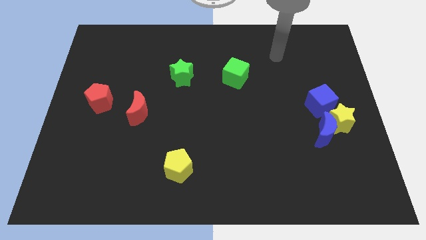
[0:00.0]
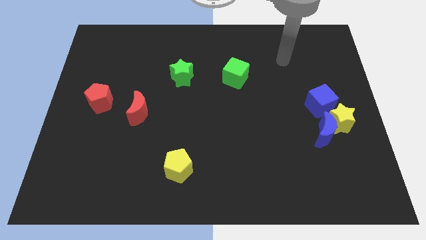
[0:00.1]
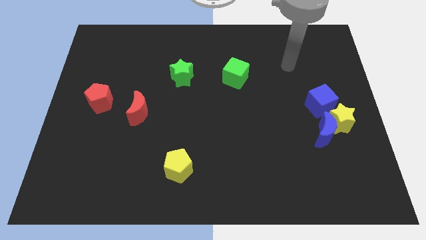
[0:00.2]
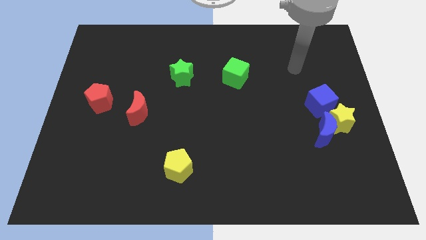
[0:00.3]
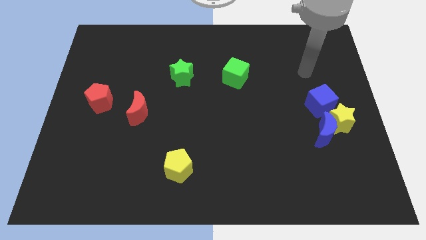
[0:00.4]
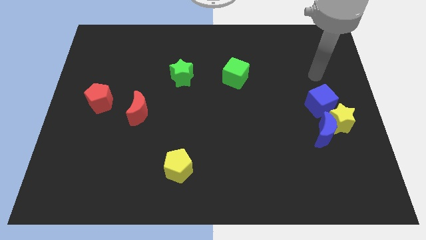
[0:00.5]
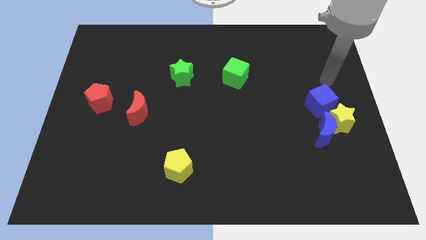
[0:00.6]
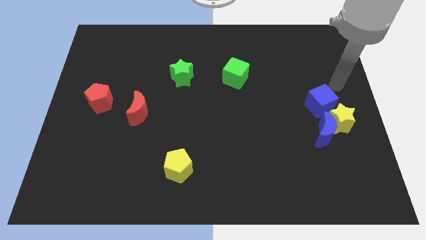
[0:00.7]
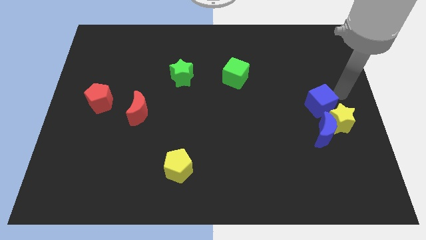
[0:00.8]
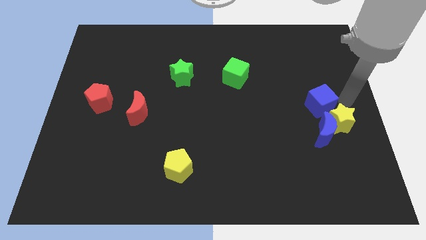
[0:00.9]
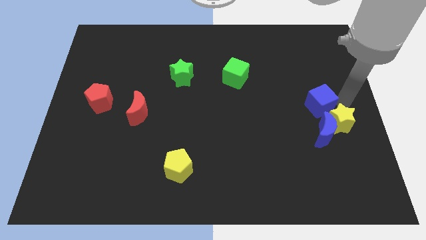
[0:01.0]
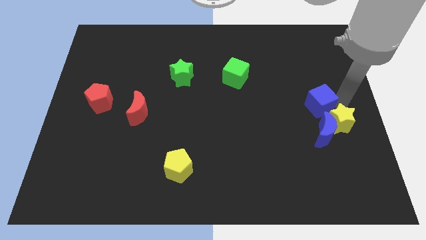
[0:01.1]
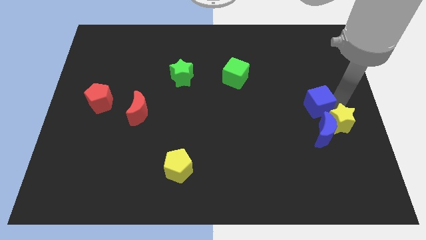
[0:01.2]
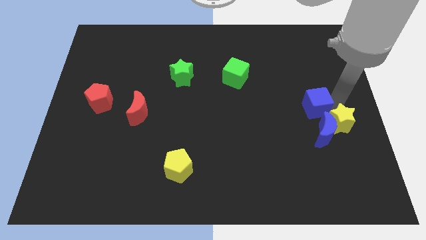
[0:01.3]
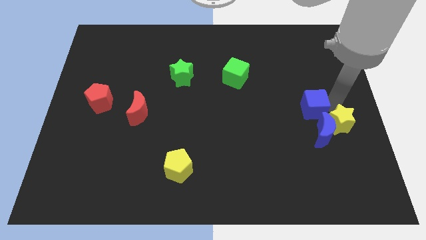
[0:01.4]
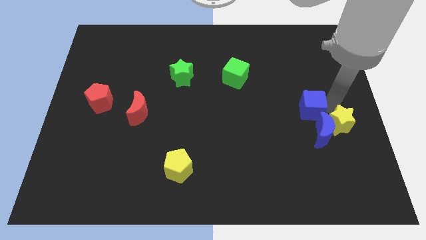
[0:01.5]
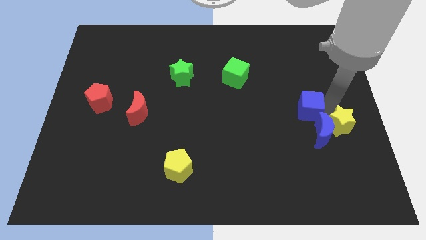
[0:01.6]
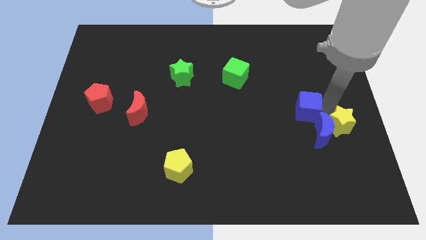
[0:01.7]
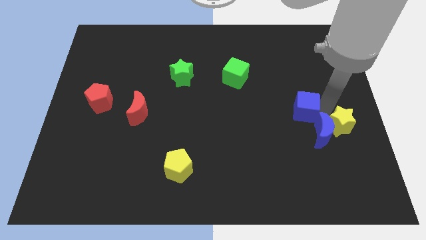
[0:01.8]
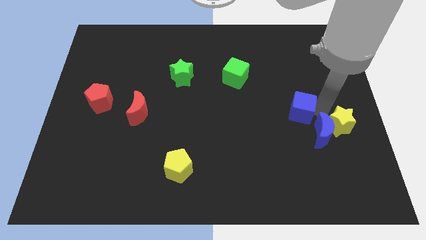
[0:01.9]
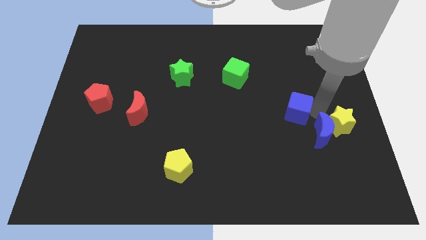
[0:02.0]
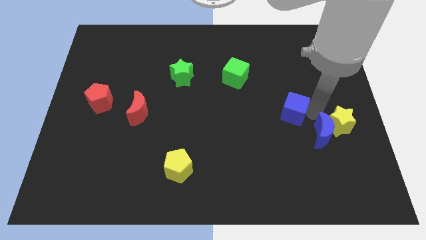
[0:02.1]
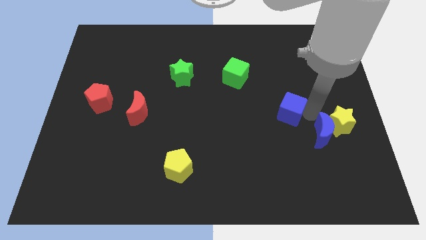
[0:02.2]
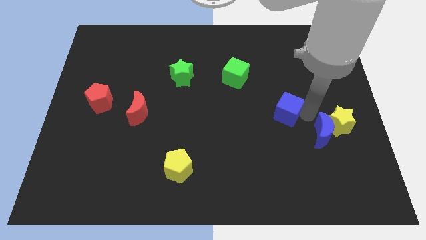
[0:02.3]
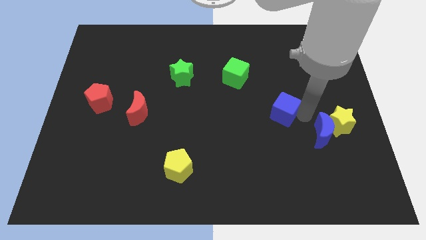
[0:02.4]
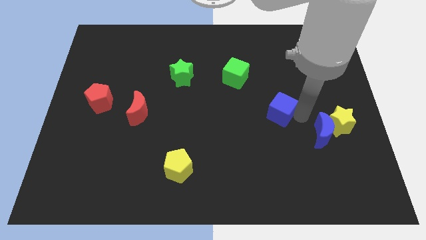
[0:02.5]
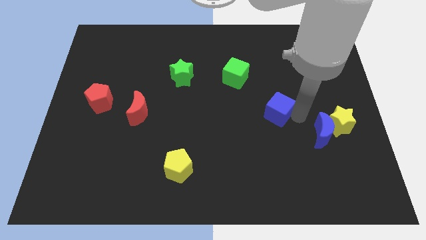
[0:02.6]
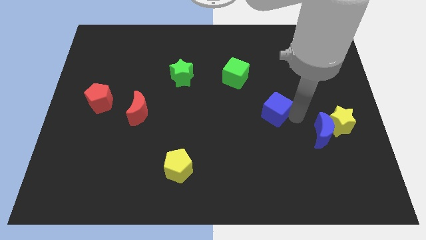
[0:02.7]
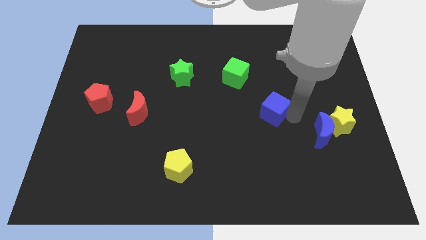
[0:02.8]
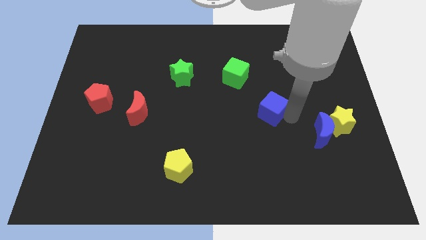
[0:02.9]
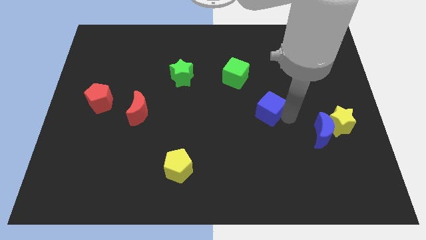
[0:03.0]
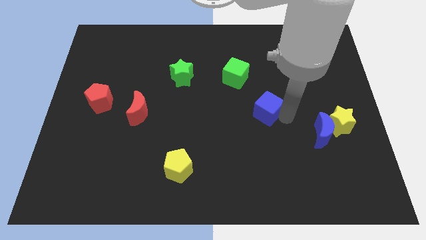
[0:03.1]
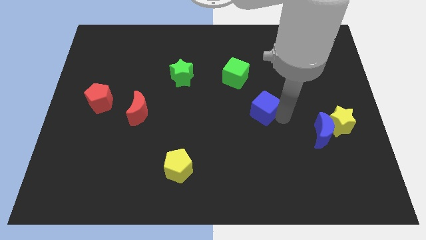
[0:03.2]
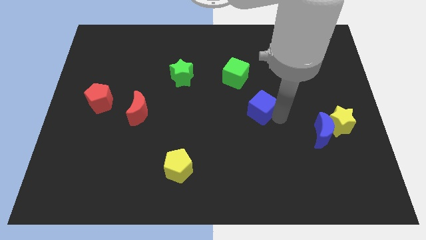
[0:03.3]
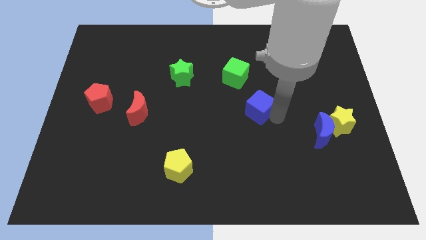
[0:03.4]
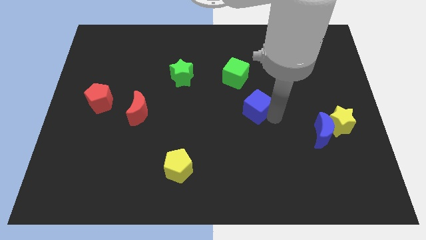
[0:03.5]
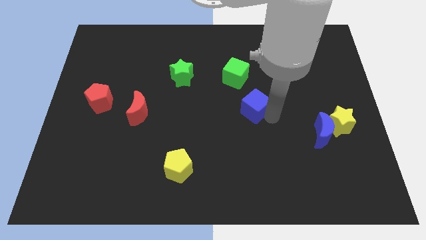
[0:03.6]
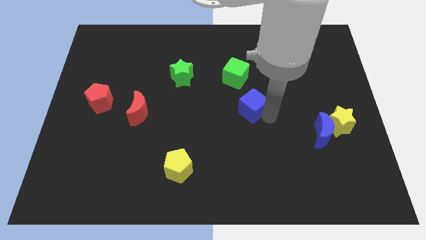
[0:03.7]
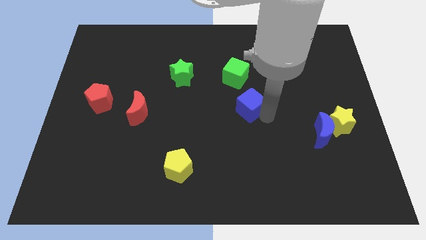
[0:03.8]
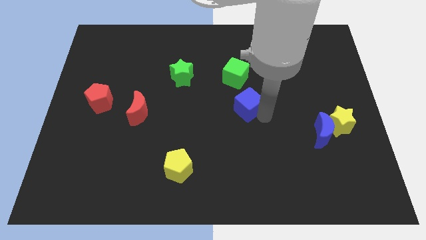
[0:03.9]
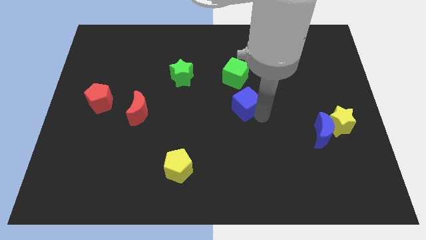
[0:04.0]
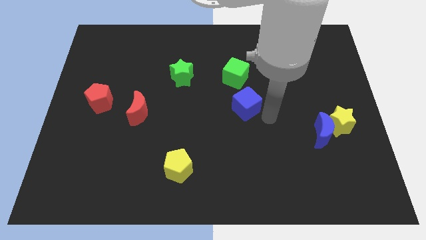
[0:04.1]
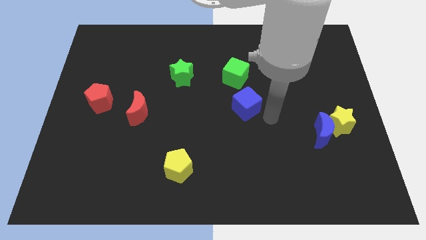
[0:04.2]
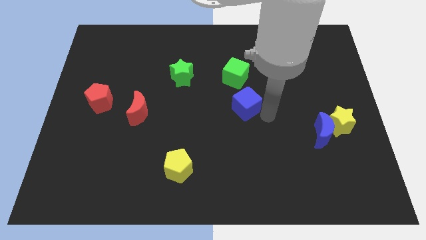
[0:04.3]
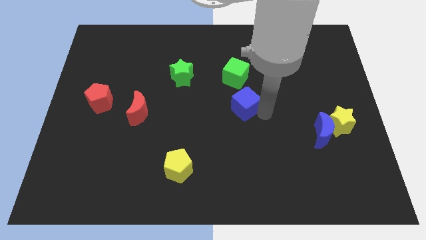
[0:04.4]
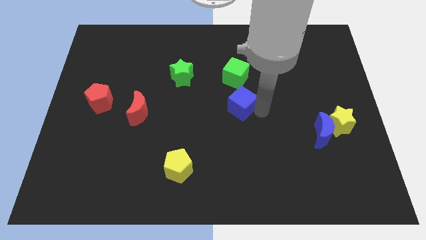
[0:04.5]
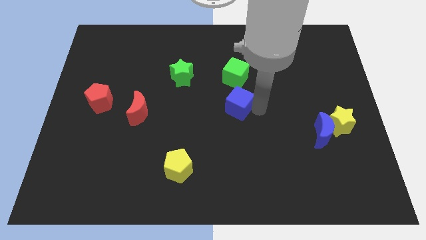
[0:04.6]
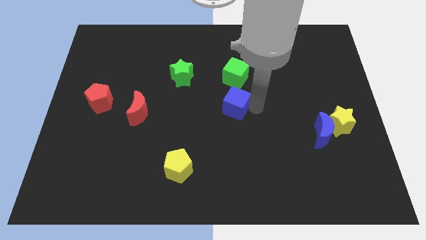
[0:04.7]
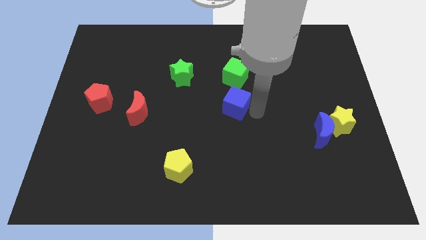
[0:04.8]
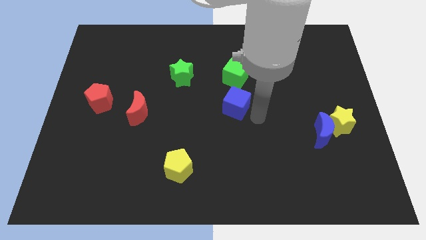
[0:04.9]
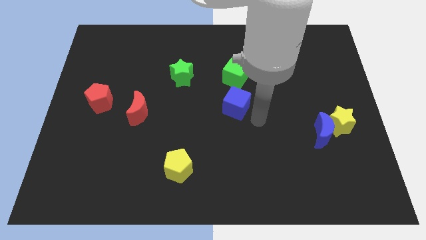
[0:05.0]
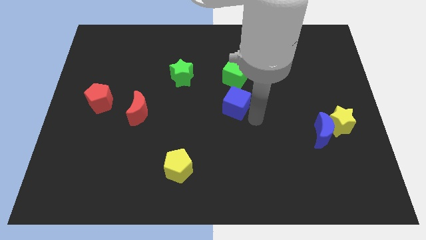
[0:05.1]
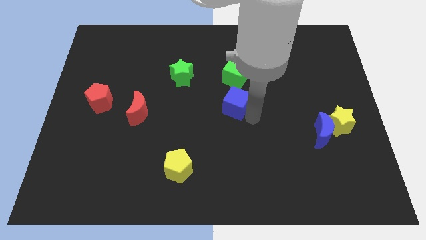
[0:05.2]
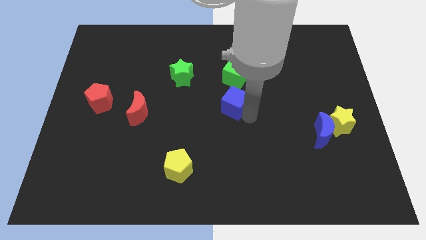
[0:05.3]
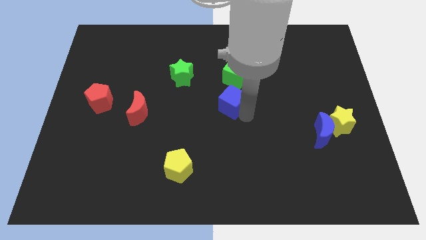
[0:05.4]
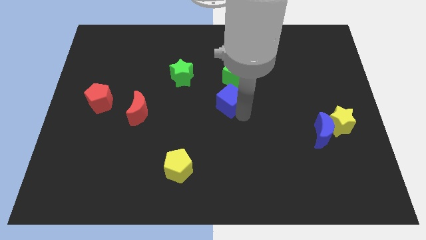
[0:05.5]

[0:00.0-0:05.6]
put the blue cube diagonally down and to the left of the green cube

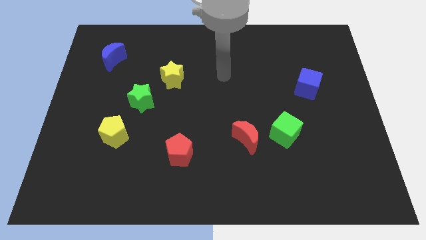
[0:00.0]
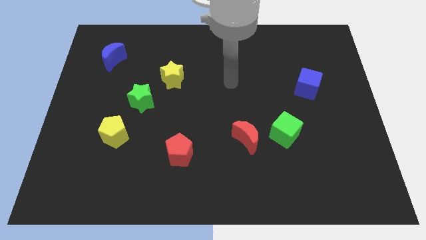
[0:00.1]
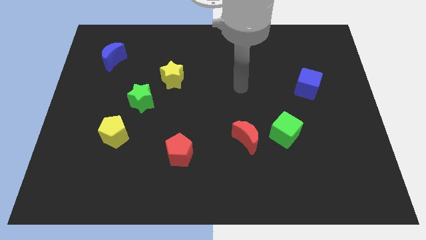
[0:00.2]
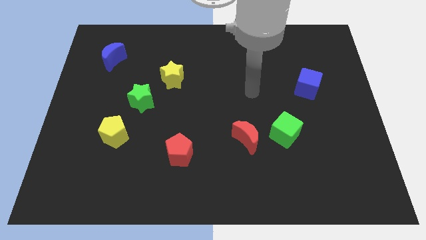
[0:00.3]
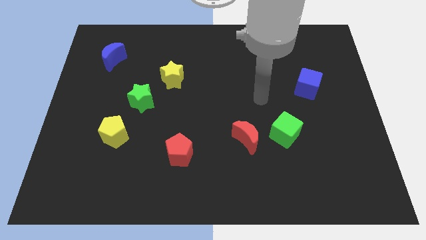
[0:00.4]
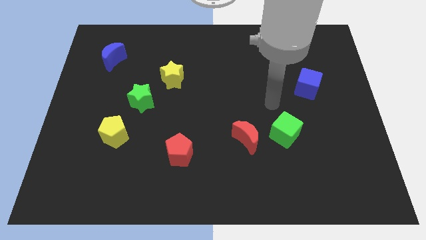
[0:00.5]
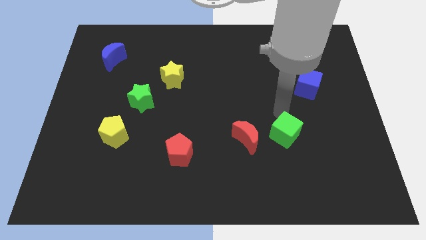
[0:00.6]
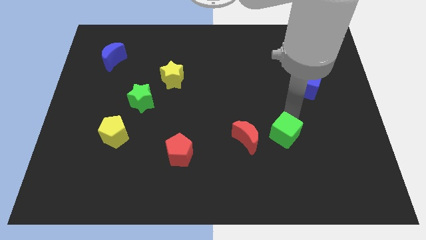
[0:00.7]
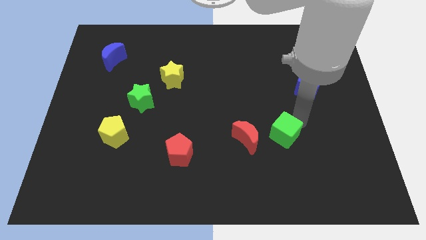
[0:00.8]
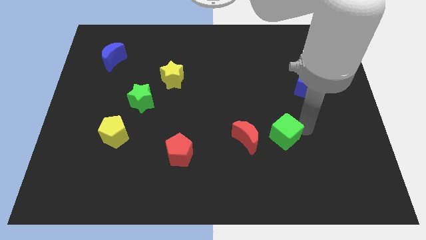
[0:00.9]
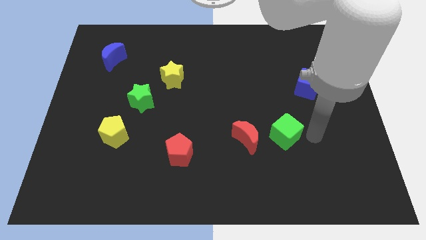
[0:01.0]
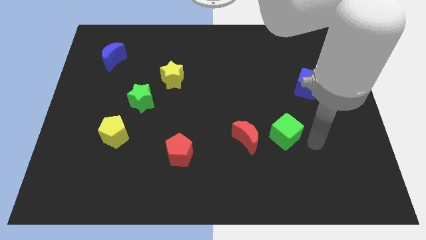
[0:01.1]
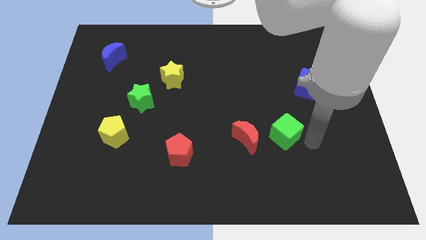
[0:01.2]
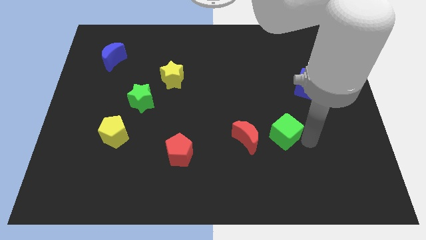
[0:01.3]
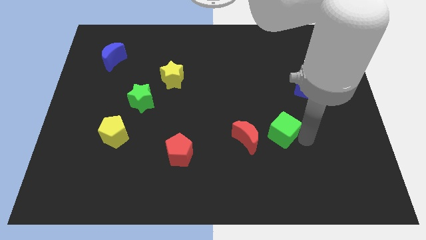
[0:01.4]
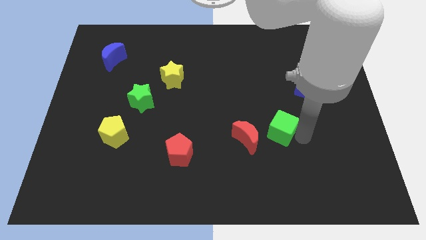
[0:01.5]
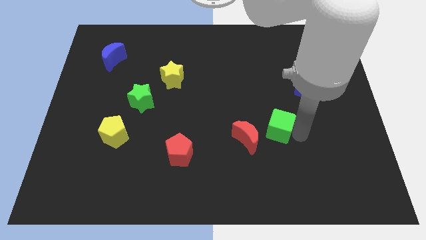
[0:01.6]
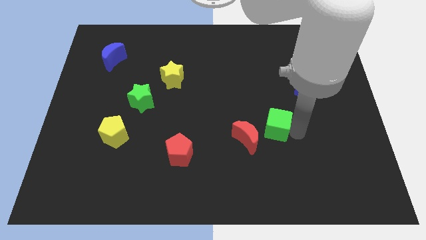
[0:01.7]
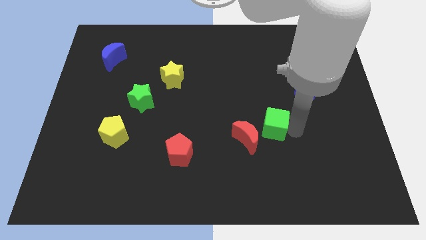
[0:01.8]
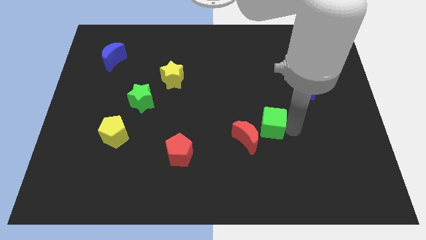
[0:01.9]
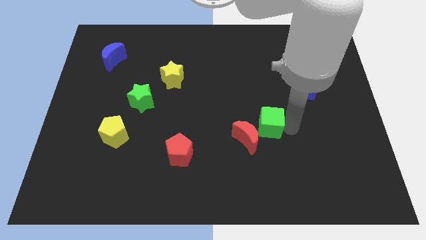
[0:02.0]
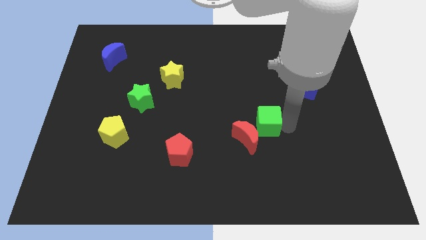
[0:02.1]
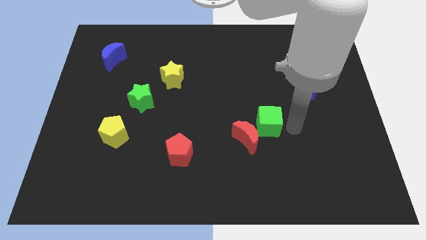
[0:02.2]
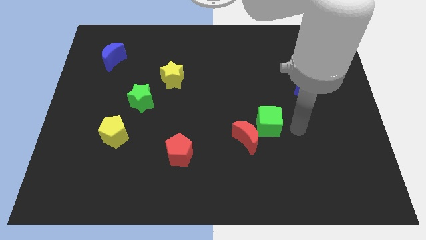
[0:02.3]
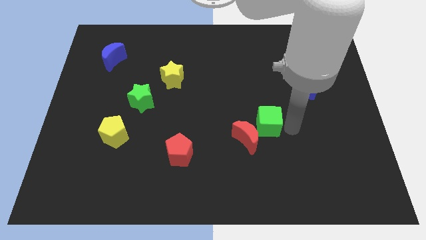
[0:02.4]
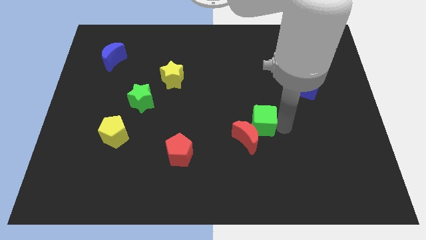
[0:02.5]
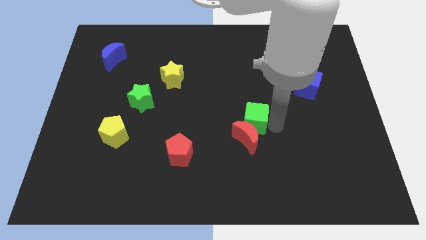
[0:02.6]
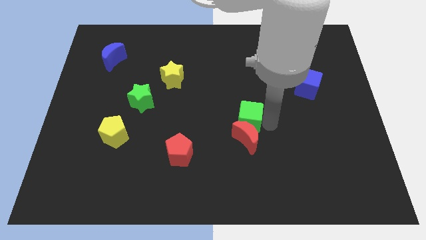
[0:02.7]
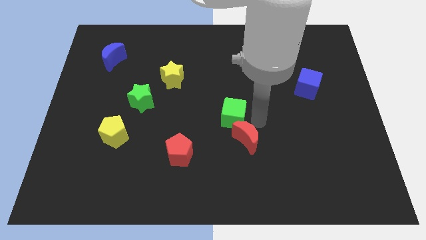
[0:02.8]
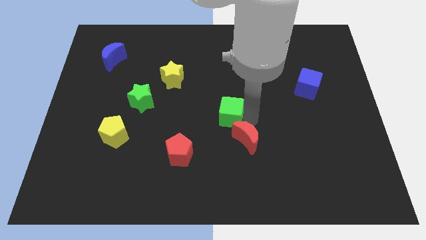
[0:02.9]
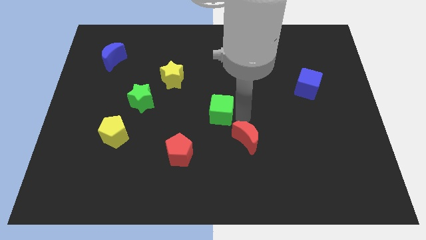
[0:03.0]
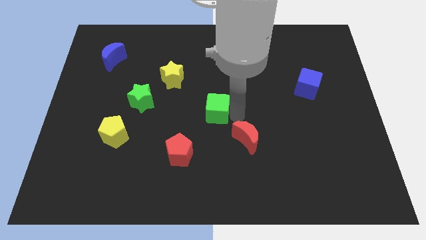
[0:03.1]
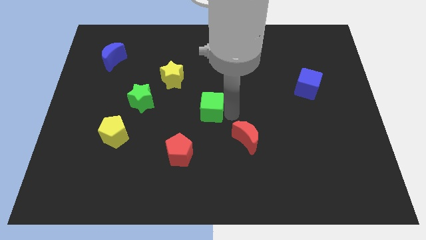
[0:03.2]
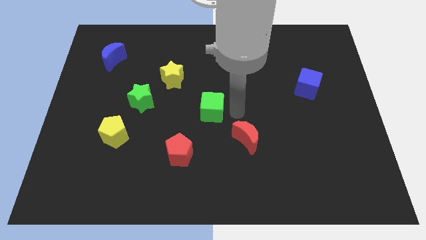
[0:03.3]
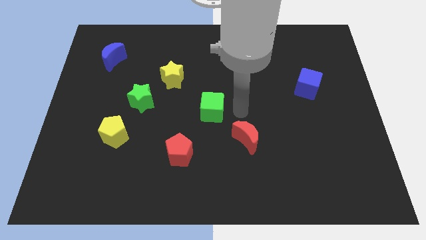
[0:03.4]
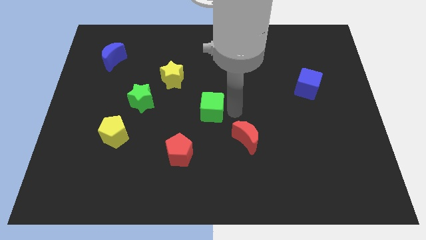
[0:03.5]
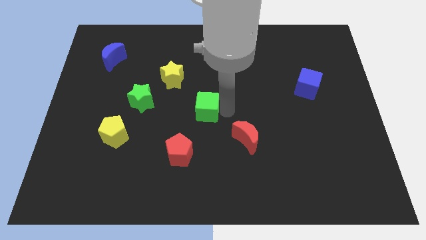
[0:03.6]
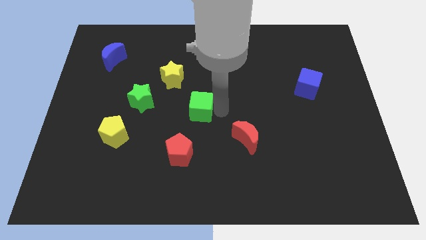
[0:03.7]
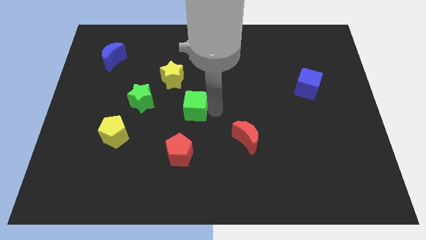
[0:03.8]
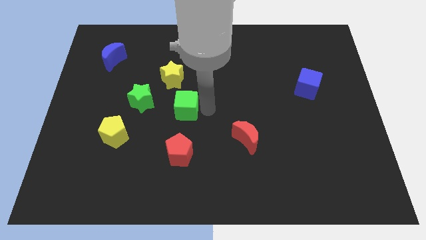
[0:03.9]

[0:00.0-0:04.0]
put the green cube to the bottom side of the yellow star
